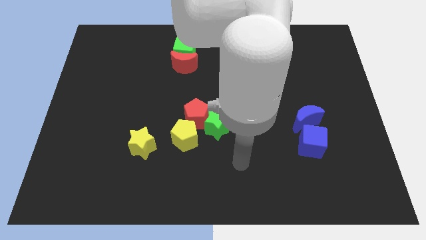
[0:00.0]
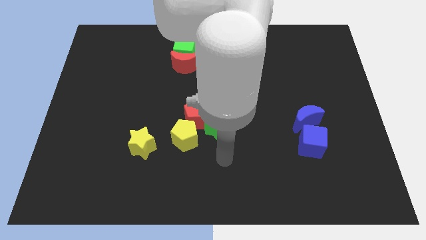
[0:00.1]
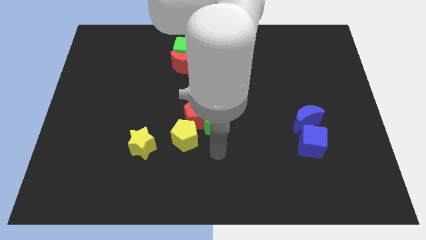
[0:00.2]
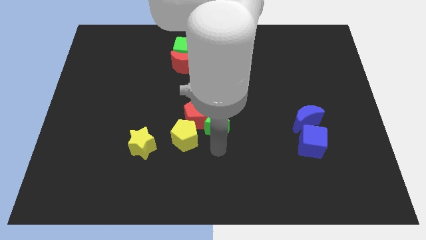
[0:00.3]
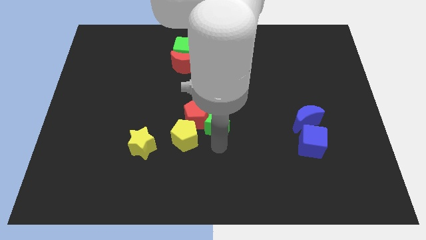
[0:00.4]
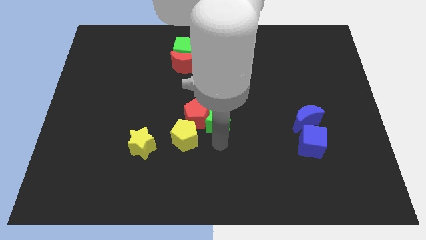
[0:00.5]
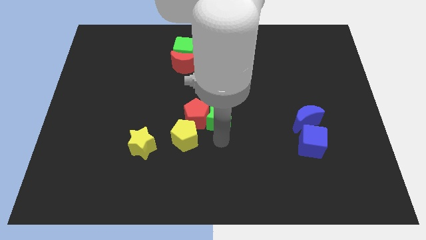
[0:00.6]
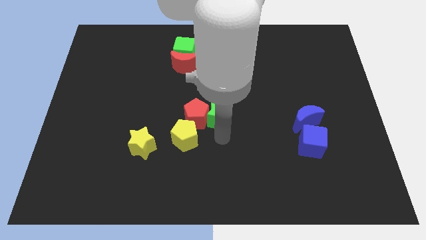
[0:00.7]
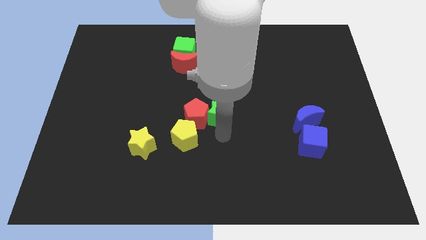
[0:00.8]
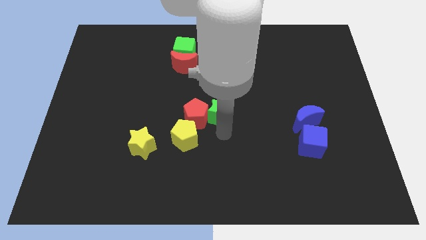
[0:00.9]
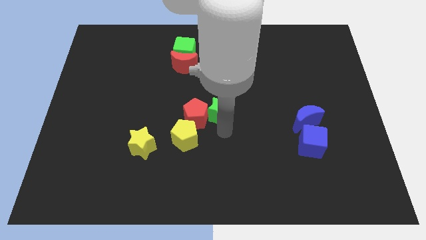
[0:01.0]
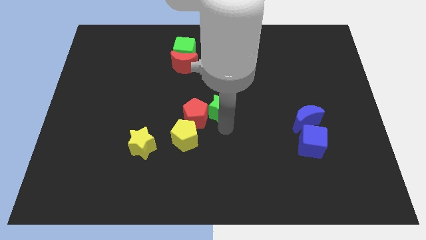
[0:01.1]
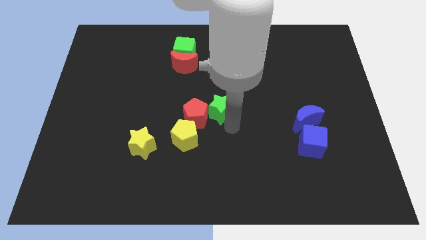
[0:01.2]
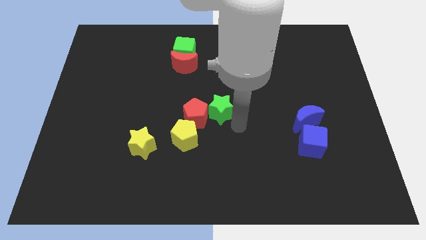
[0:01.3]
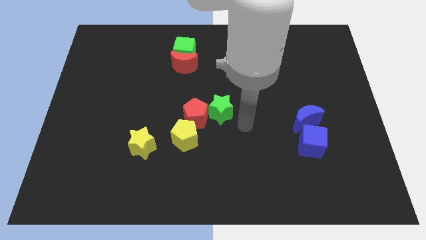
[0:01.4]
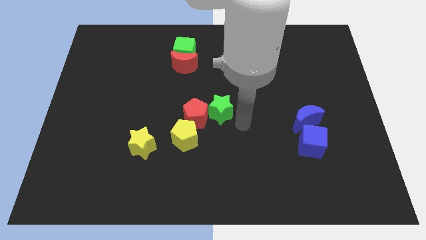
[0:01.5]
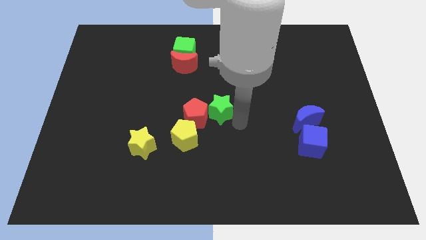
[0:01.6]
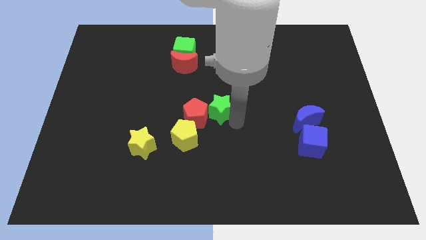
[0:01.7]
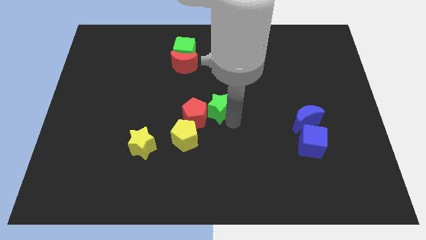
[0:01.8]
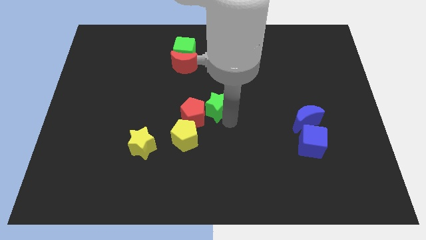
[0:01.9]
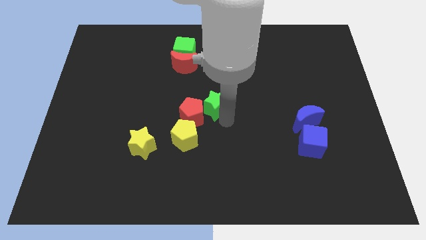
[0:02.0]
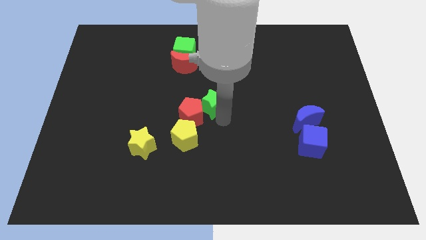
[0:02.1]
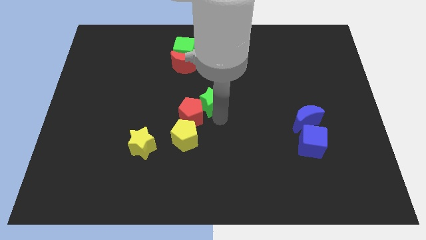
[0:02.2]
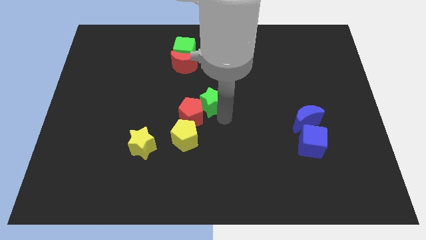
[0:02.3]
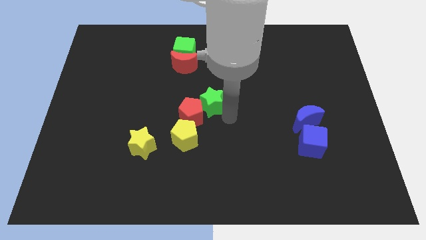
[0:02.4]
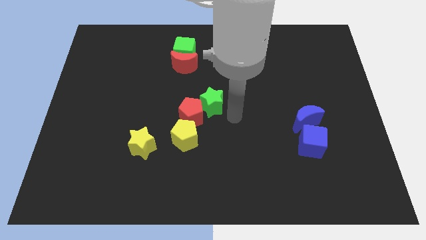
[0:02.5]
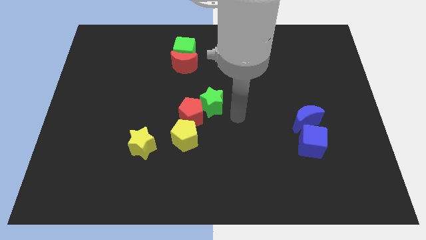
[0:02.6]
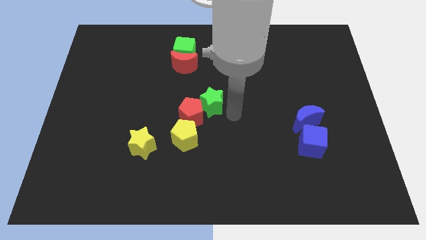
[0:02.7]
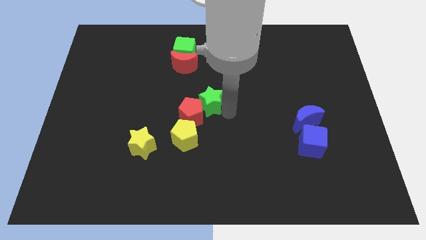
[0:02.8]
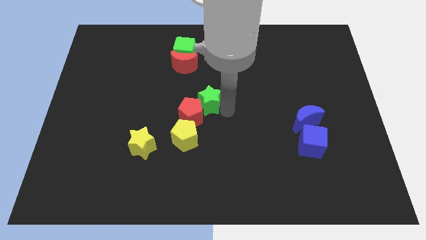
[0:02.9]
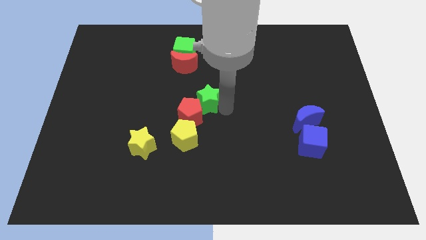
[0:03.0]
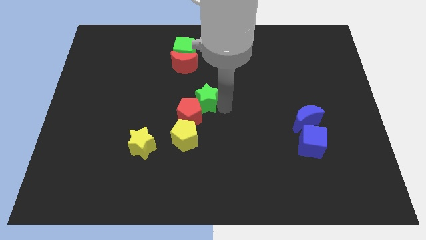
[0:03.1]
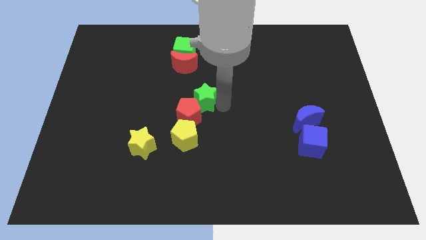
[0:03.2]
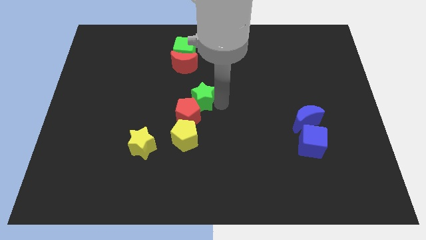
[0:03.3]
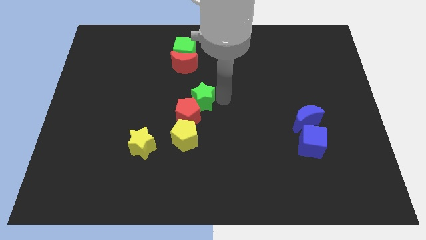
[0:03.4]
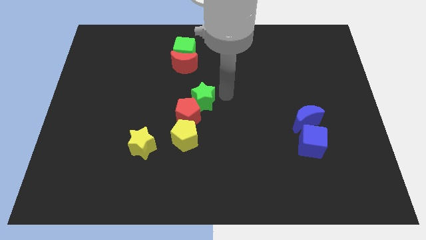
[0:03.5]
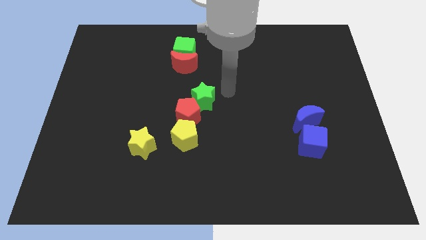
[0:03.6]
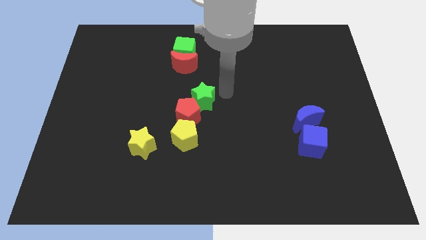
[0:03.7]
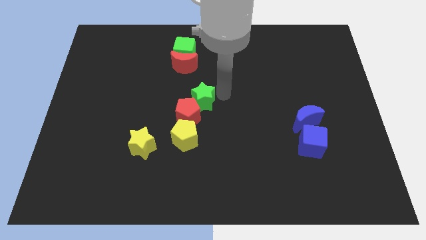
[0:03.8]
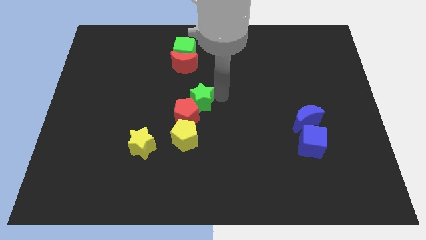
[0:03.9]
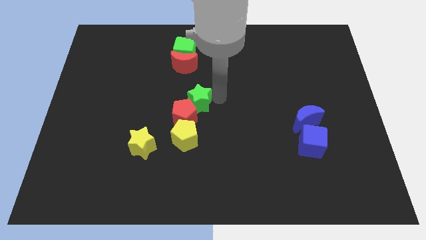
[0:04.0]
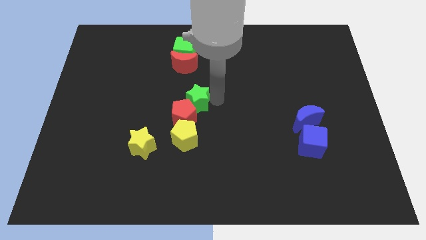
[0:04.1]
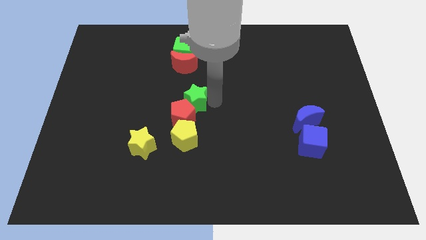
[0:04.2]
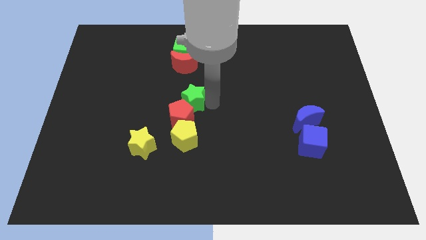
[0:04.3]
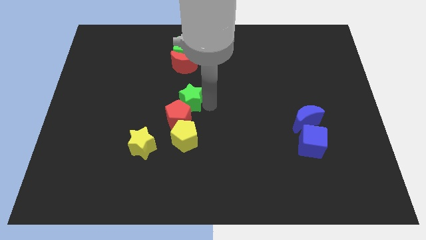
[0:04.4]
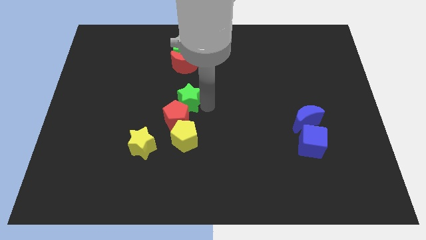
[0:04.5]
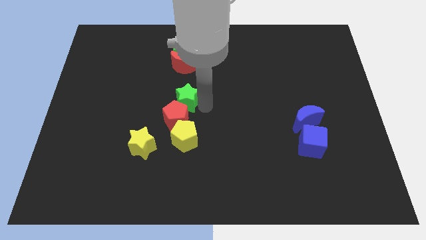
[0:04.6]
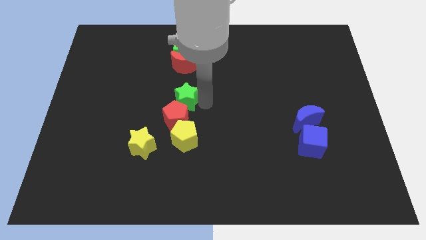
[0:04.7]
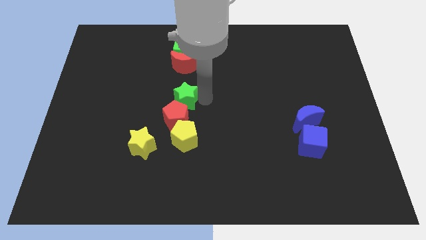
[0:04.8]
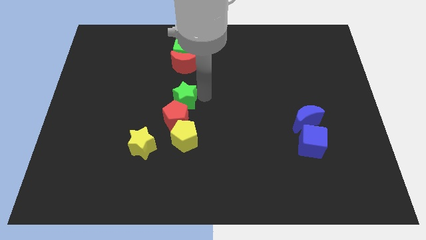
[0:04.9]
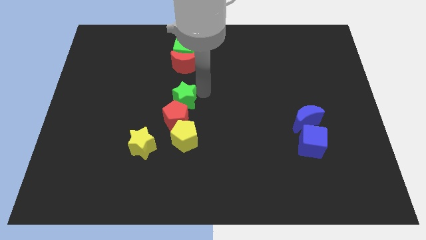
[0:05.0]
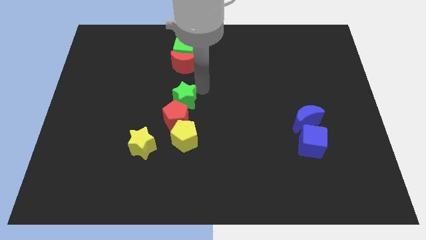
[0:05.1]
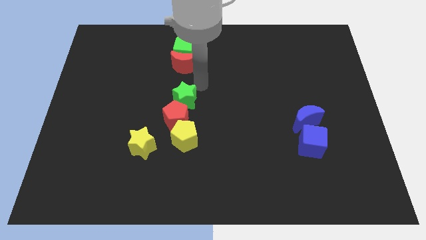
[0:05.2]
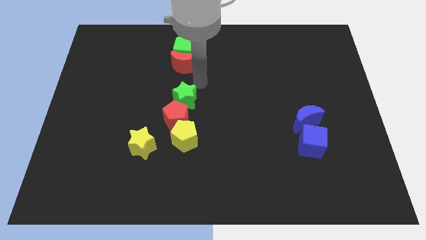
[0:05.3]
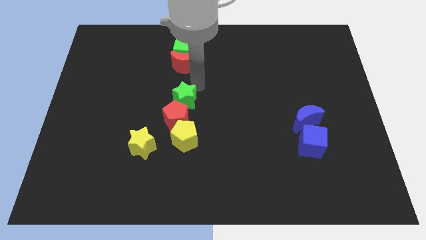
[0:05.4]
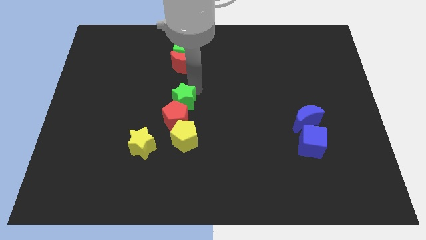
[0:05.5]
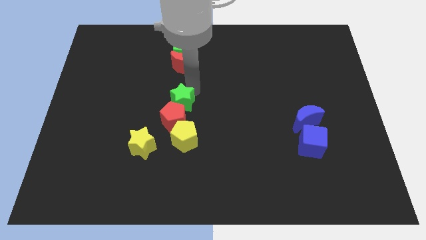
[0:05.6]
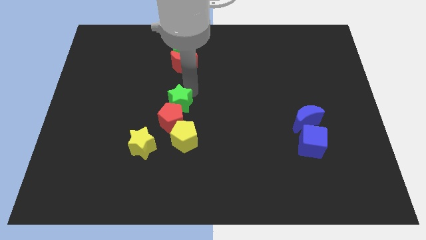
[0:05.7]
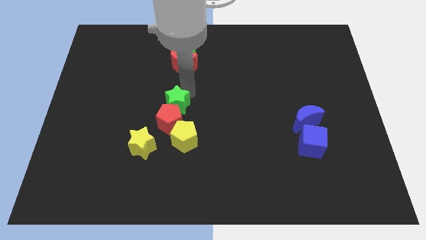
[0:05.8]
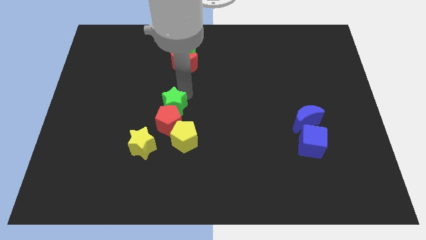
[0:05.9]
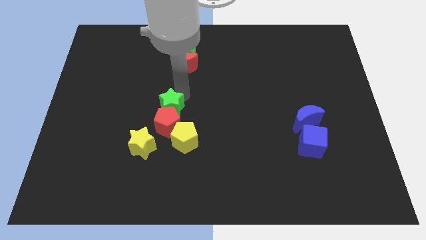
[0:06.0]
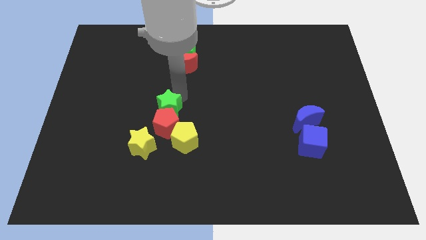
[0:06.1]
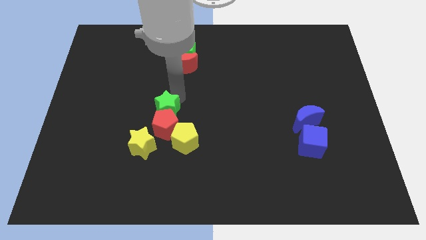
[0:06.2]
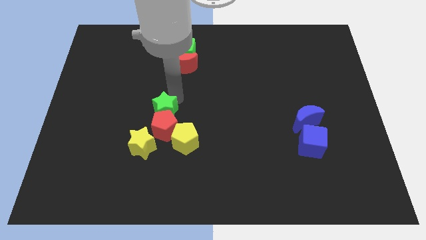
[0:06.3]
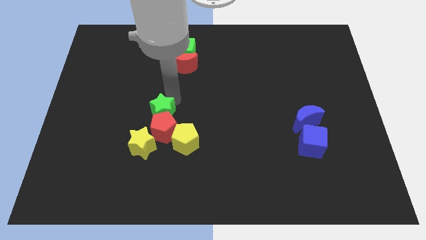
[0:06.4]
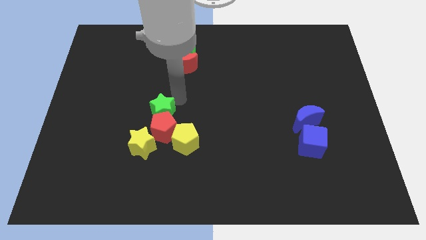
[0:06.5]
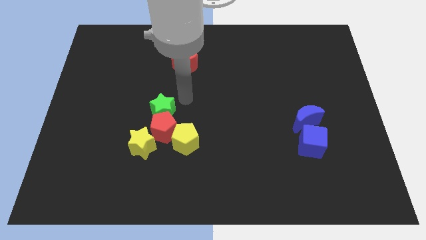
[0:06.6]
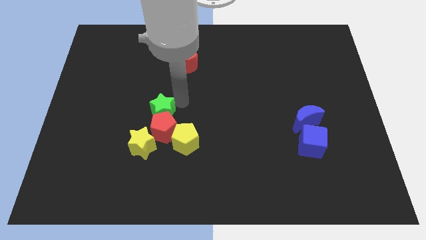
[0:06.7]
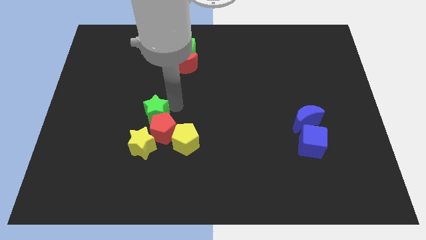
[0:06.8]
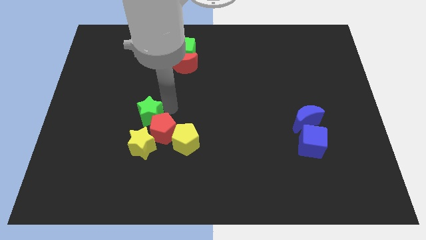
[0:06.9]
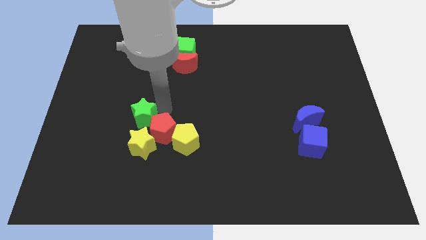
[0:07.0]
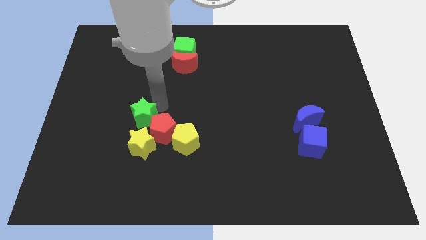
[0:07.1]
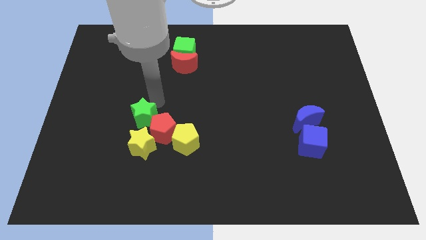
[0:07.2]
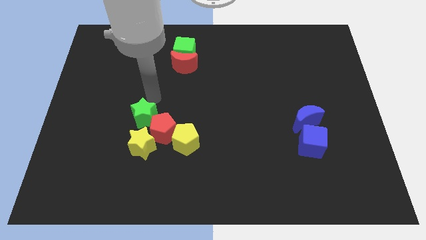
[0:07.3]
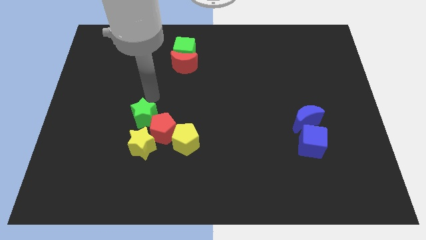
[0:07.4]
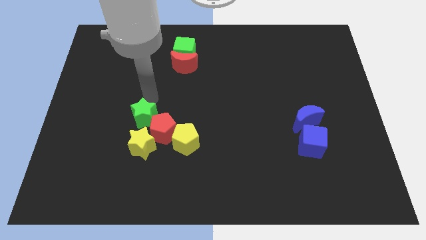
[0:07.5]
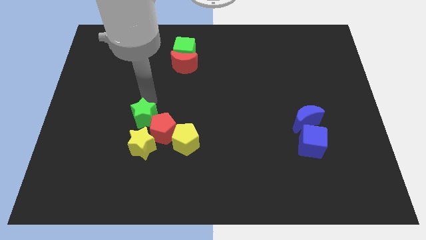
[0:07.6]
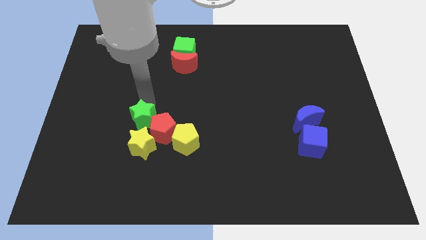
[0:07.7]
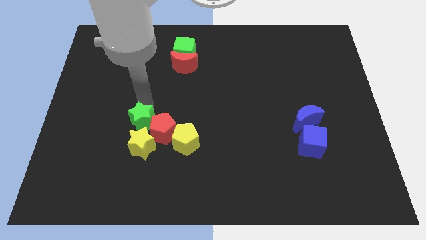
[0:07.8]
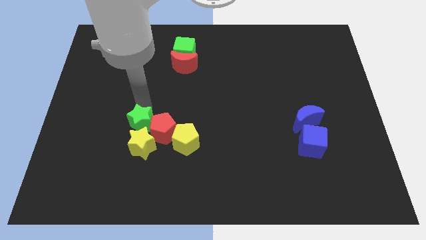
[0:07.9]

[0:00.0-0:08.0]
push the green star left of the yellow pentagon
